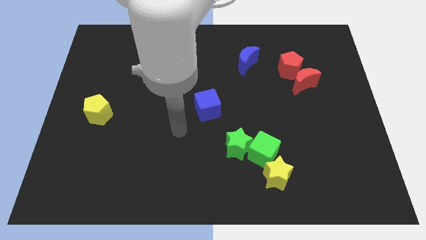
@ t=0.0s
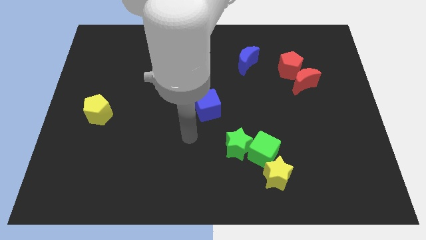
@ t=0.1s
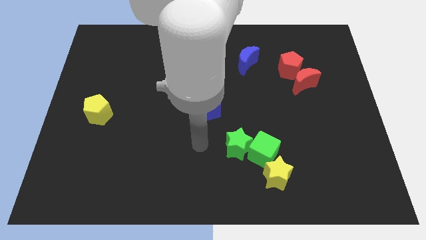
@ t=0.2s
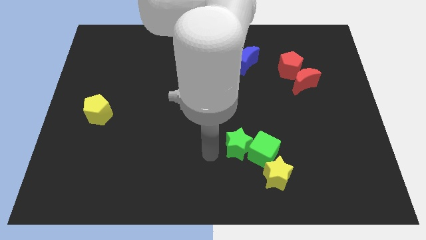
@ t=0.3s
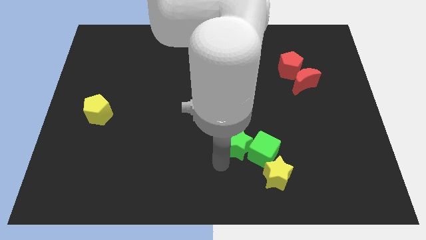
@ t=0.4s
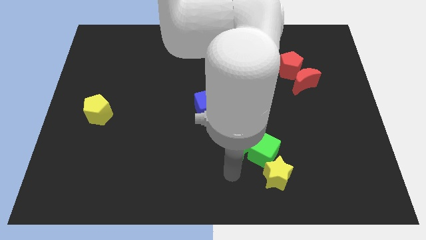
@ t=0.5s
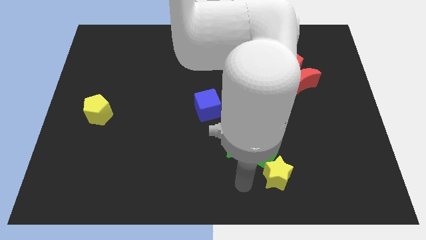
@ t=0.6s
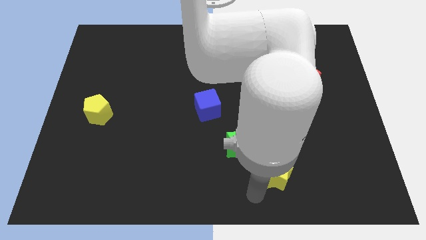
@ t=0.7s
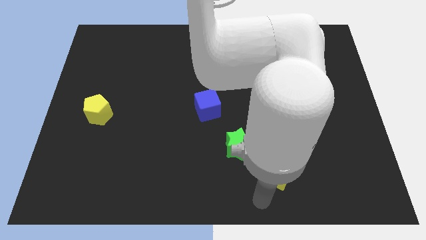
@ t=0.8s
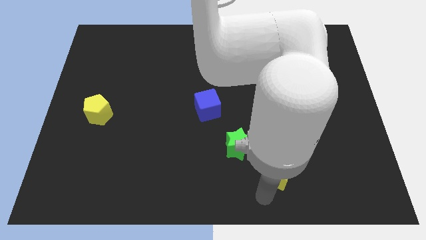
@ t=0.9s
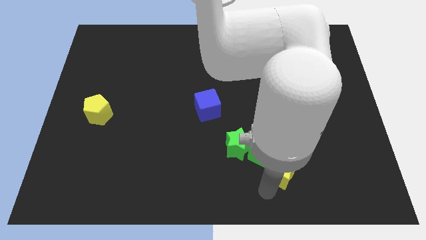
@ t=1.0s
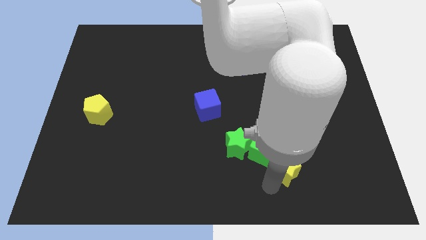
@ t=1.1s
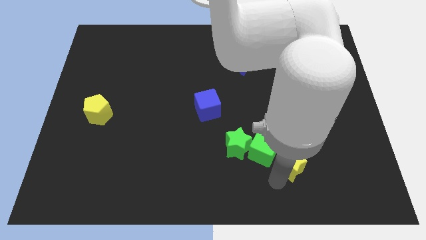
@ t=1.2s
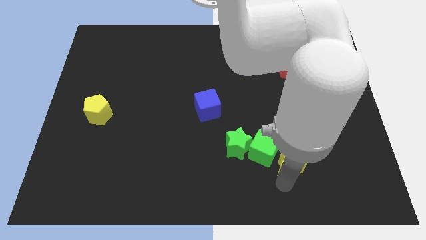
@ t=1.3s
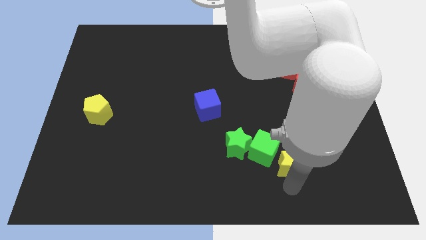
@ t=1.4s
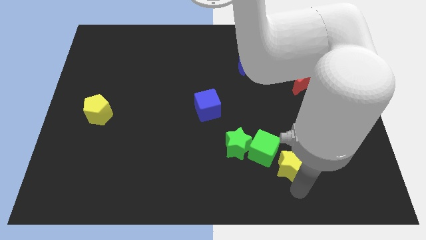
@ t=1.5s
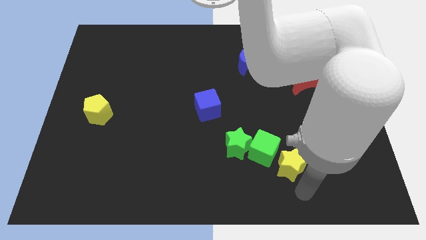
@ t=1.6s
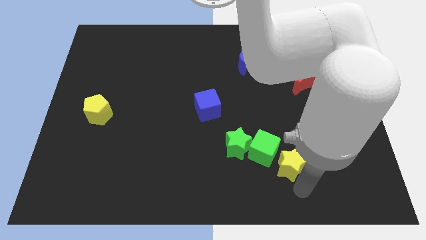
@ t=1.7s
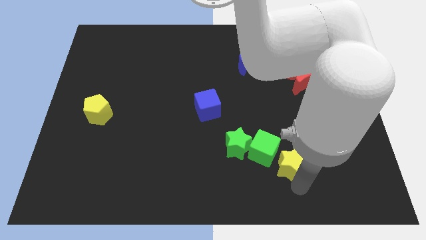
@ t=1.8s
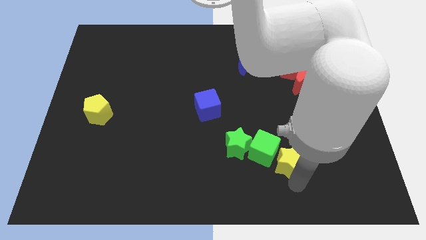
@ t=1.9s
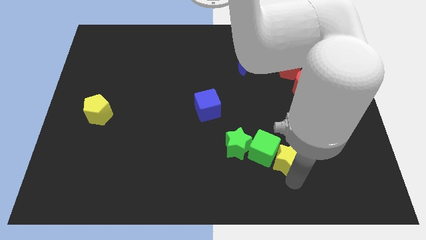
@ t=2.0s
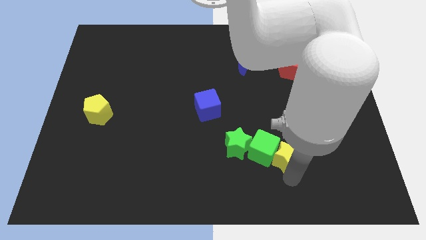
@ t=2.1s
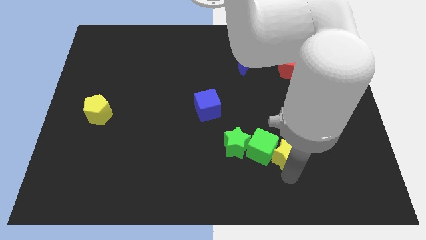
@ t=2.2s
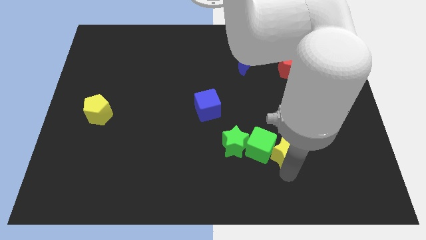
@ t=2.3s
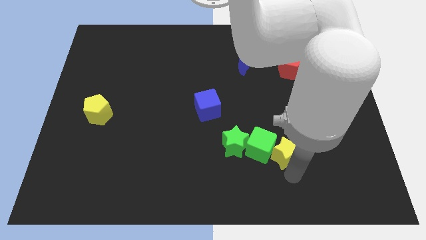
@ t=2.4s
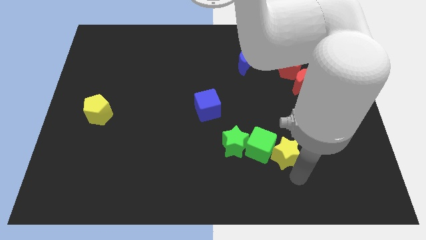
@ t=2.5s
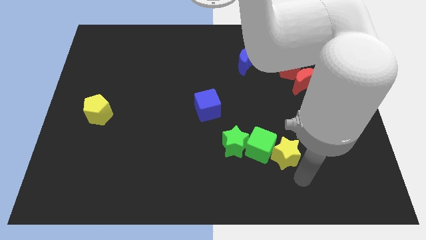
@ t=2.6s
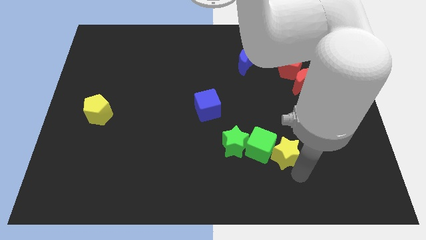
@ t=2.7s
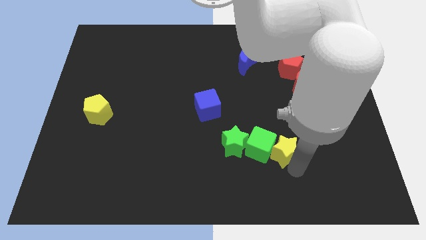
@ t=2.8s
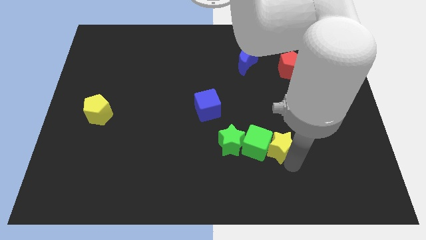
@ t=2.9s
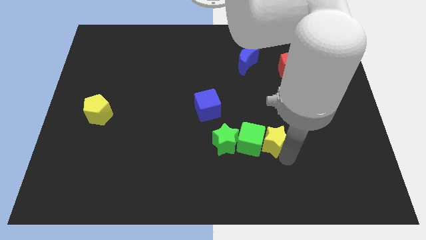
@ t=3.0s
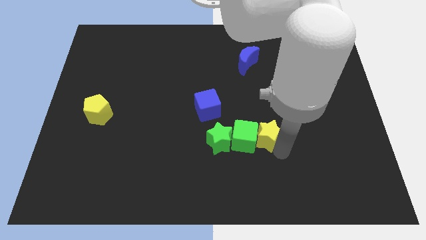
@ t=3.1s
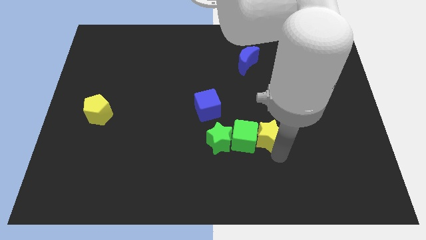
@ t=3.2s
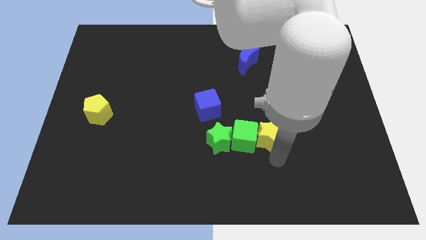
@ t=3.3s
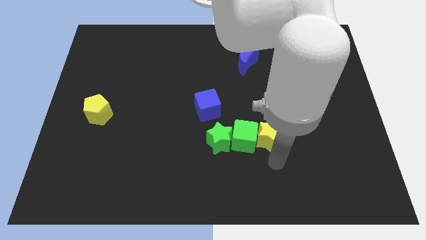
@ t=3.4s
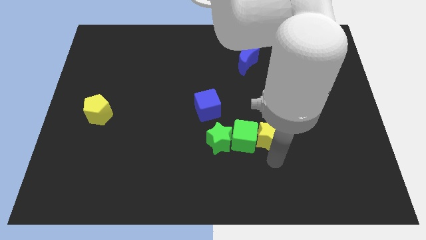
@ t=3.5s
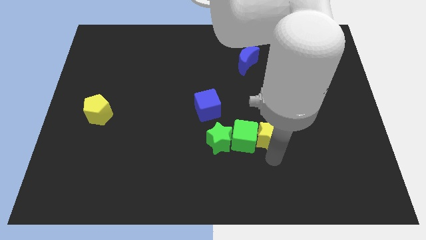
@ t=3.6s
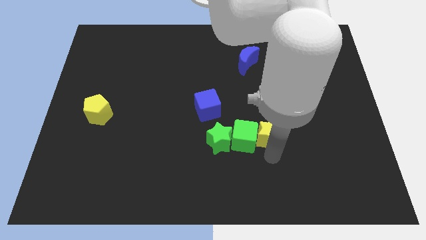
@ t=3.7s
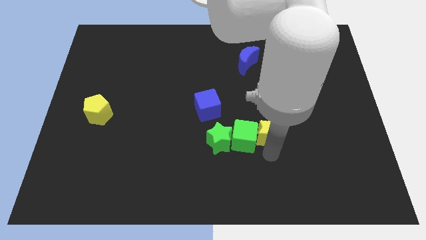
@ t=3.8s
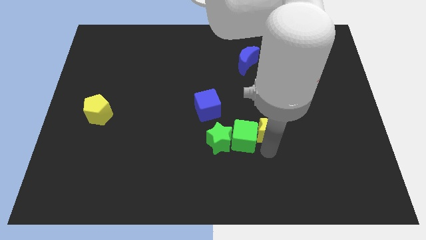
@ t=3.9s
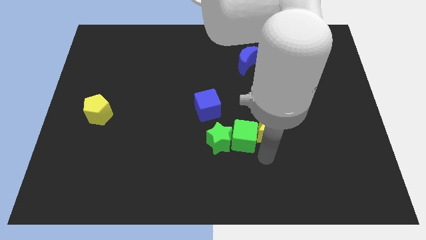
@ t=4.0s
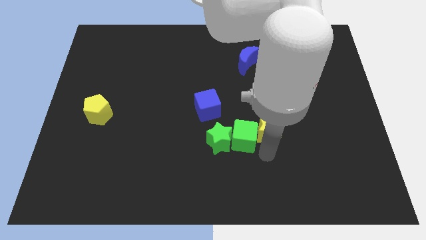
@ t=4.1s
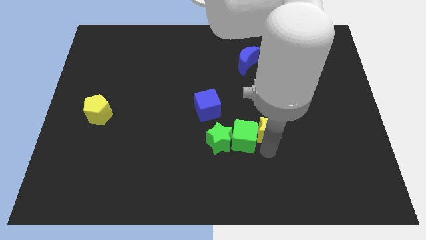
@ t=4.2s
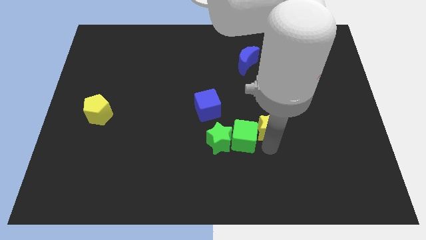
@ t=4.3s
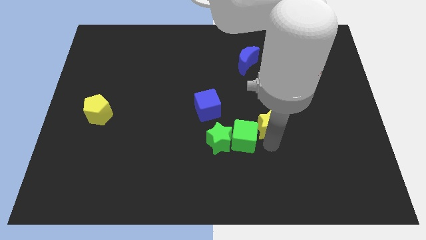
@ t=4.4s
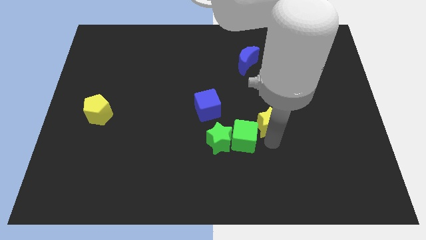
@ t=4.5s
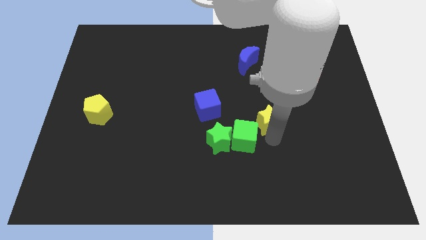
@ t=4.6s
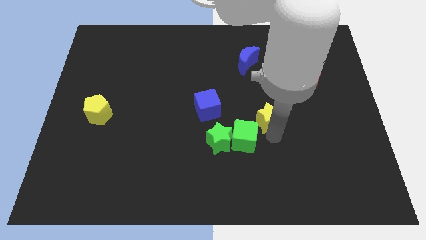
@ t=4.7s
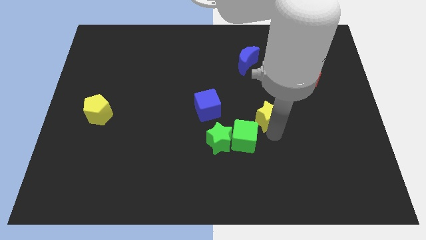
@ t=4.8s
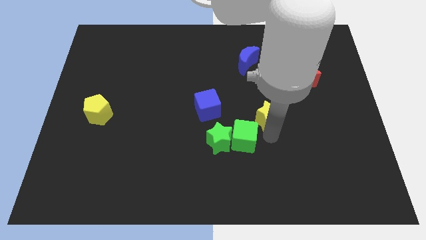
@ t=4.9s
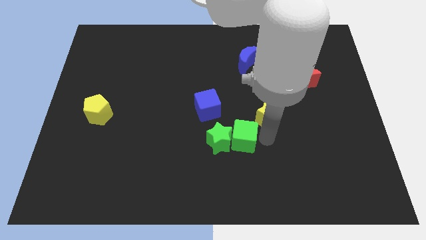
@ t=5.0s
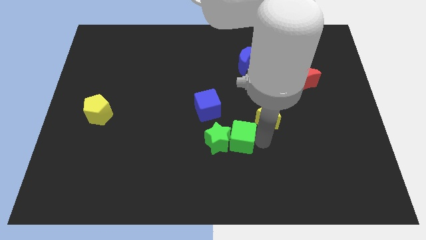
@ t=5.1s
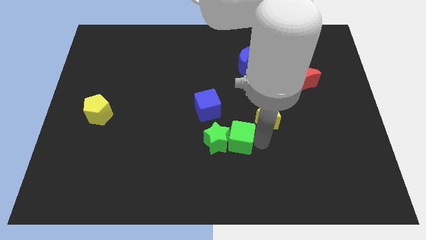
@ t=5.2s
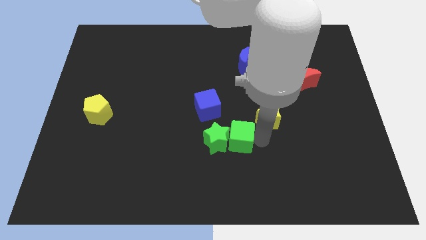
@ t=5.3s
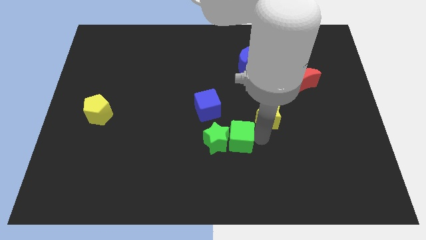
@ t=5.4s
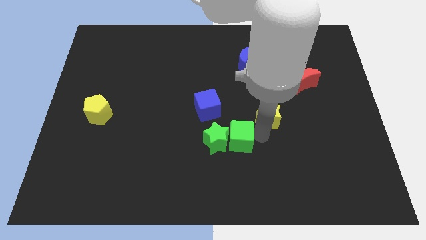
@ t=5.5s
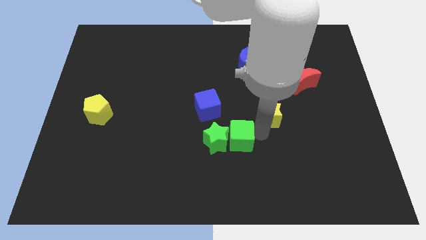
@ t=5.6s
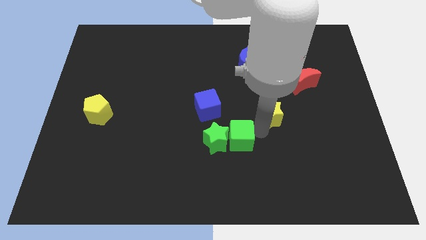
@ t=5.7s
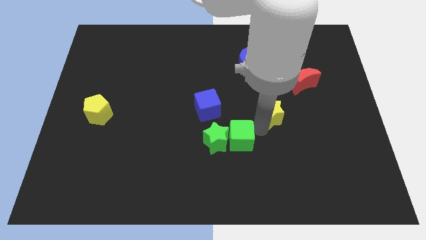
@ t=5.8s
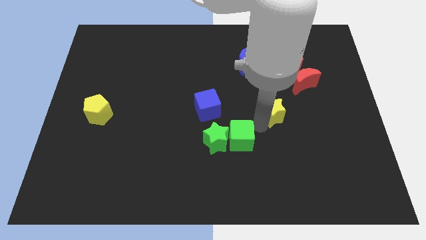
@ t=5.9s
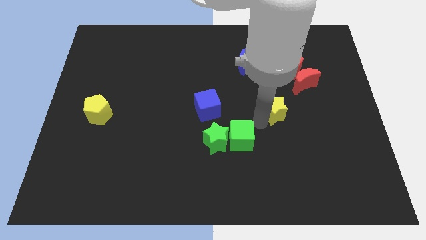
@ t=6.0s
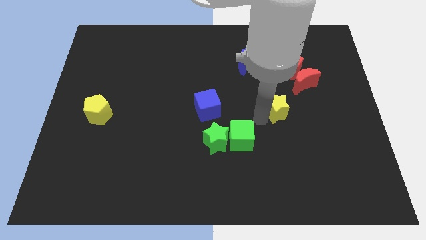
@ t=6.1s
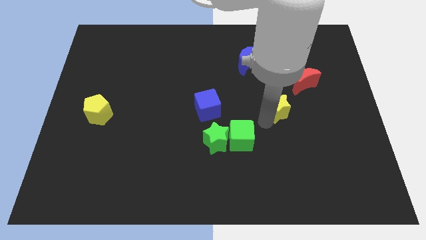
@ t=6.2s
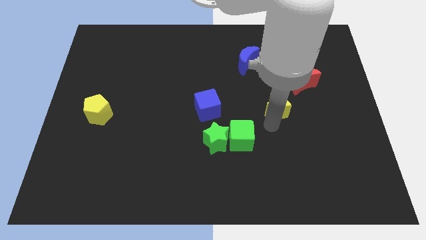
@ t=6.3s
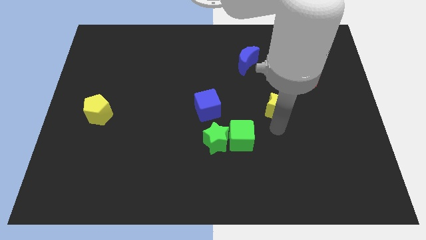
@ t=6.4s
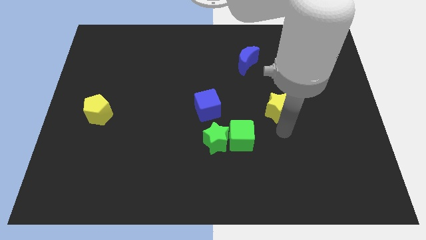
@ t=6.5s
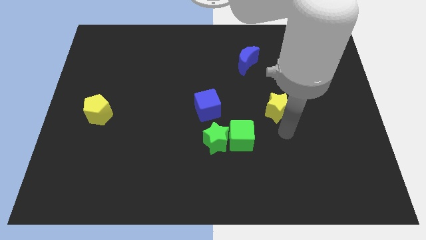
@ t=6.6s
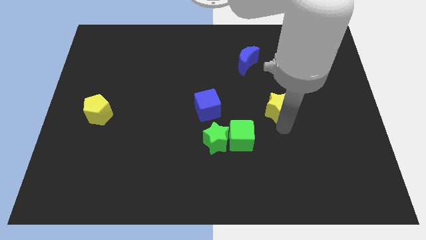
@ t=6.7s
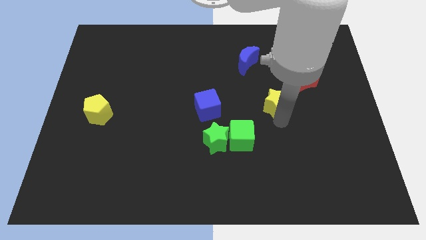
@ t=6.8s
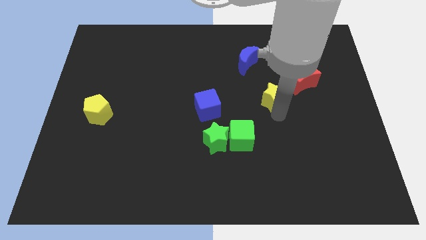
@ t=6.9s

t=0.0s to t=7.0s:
move the yellow star upwards

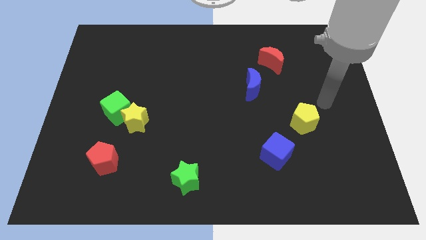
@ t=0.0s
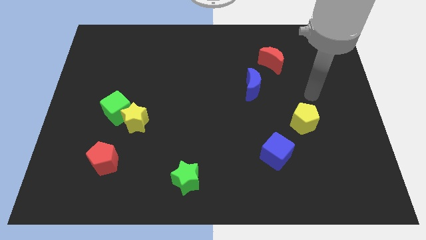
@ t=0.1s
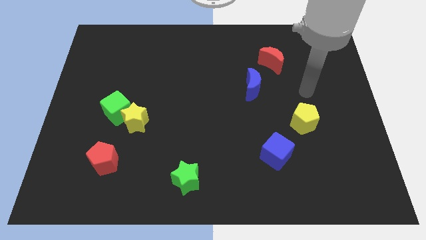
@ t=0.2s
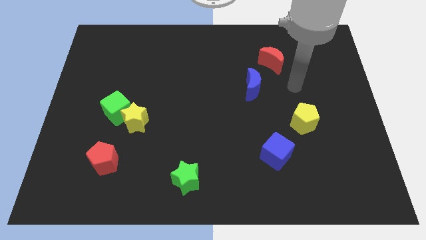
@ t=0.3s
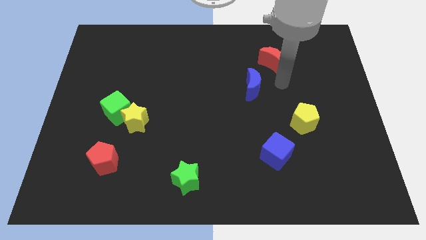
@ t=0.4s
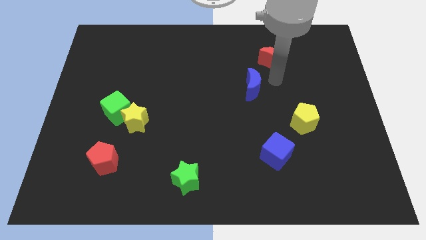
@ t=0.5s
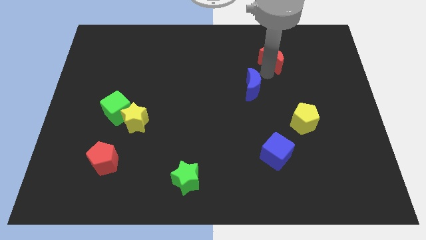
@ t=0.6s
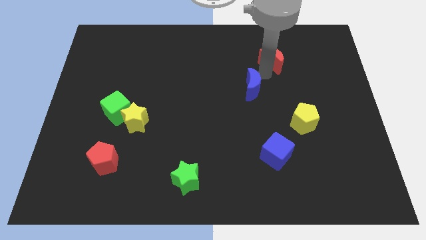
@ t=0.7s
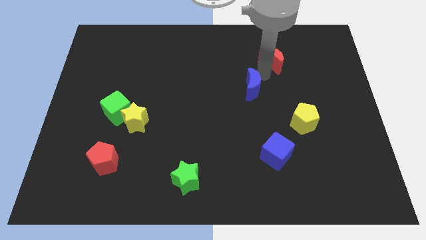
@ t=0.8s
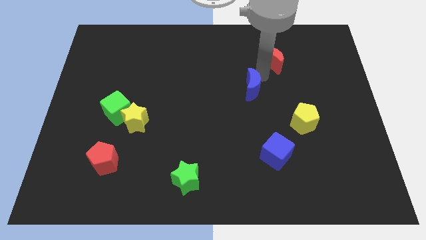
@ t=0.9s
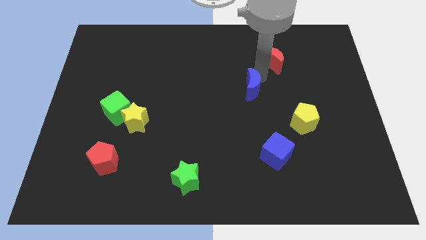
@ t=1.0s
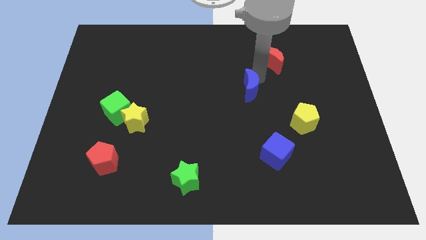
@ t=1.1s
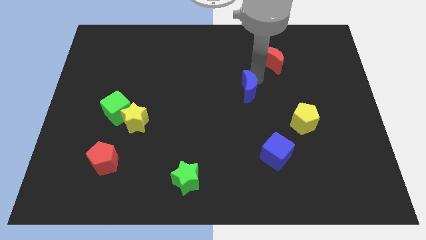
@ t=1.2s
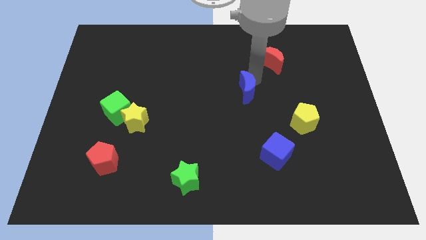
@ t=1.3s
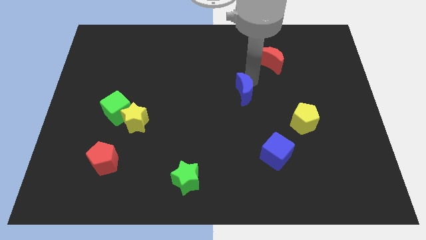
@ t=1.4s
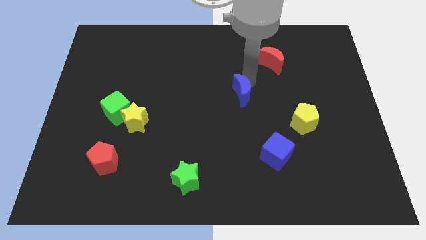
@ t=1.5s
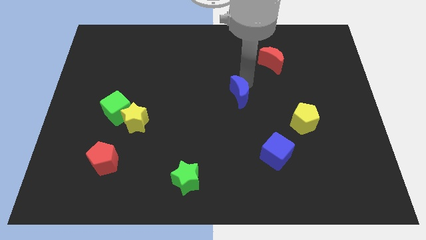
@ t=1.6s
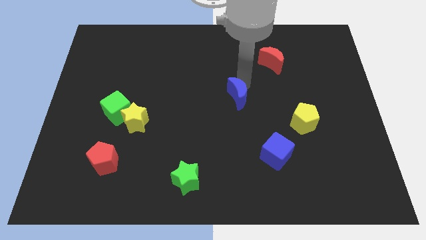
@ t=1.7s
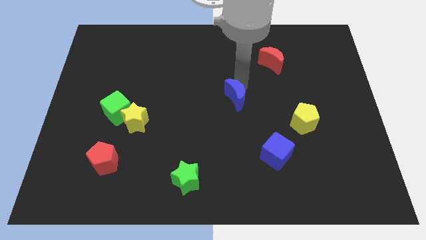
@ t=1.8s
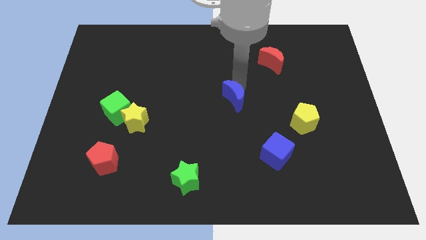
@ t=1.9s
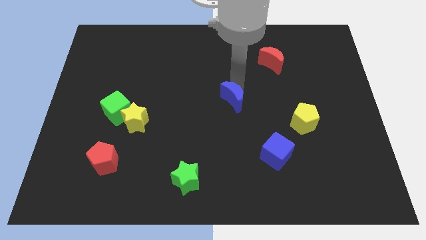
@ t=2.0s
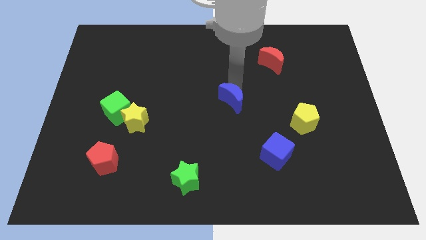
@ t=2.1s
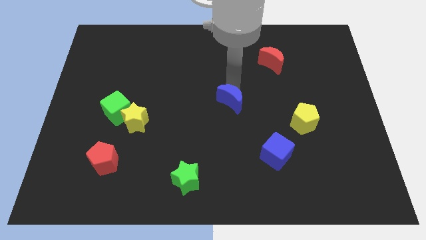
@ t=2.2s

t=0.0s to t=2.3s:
slightly move the blue moon diagonally downwards and to the left
